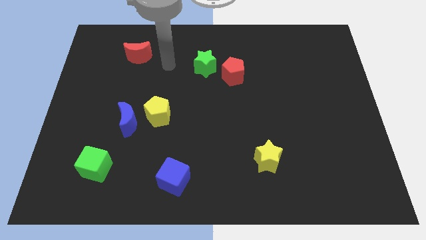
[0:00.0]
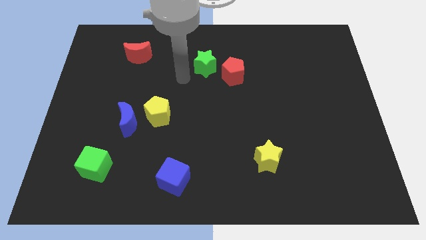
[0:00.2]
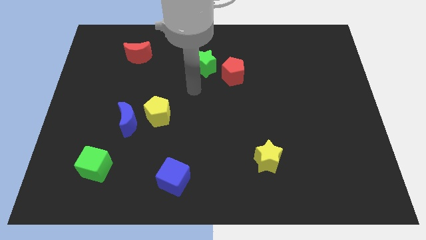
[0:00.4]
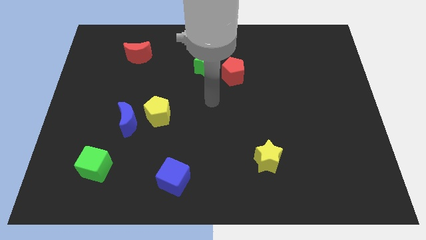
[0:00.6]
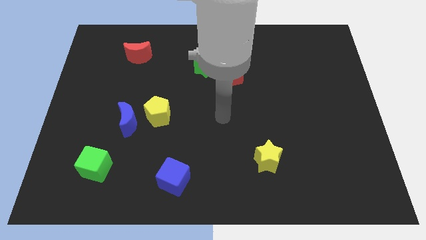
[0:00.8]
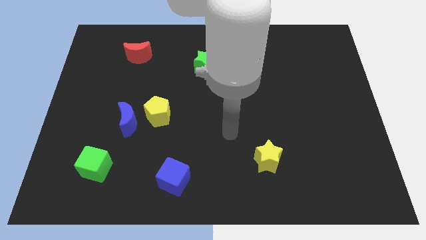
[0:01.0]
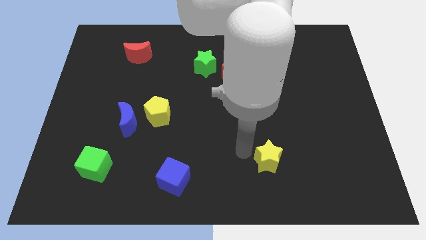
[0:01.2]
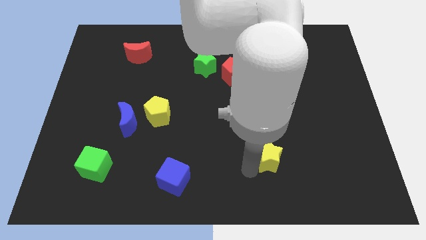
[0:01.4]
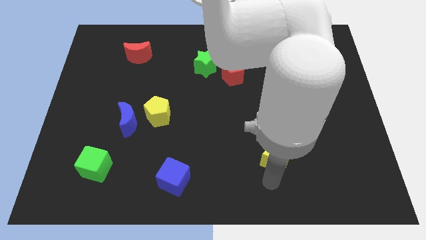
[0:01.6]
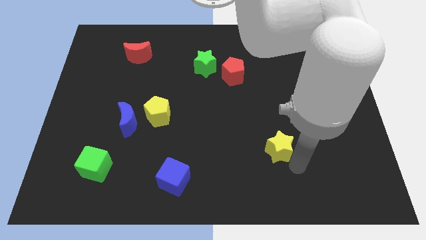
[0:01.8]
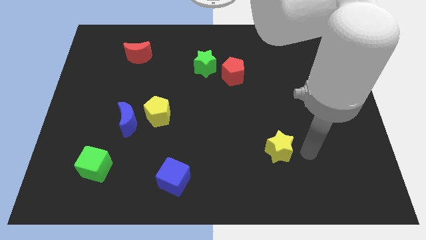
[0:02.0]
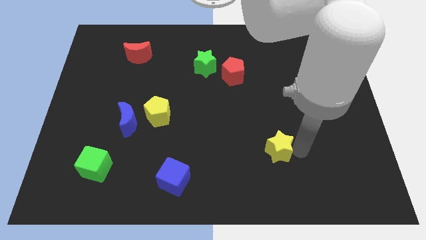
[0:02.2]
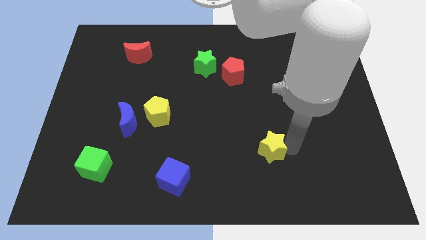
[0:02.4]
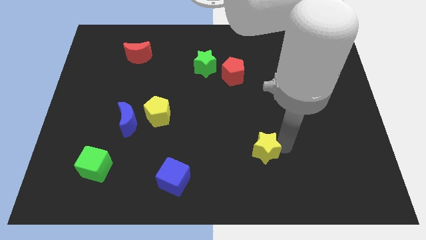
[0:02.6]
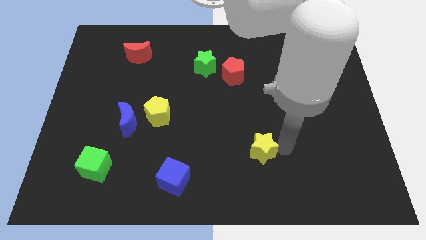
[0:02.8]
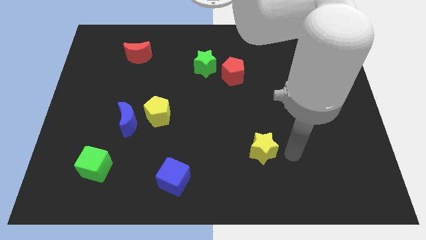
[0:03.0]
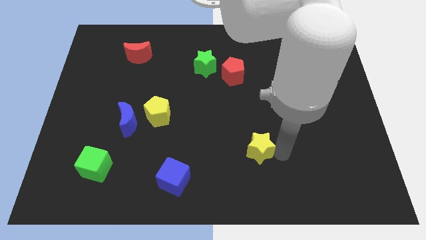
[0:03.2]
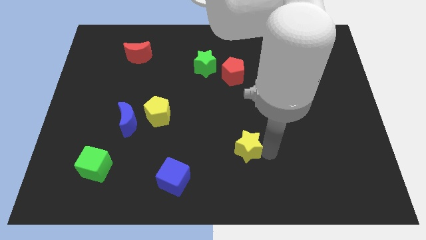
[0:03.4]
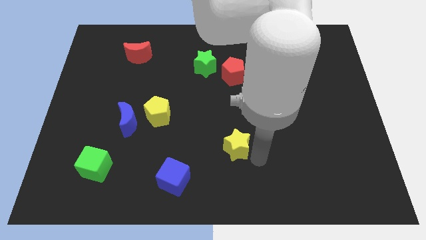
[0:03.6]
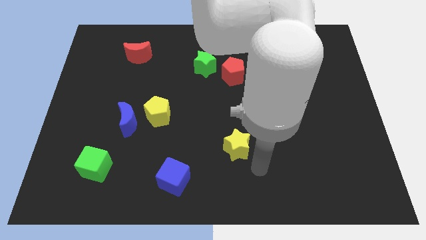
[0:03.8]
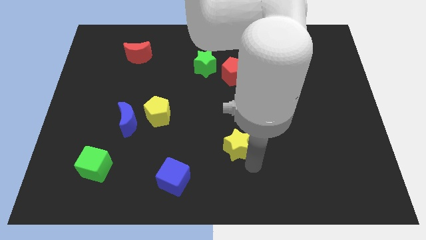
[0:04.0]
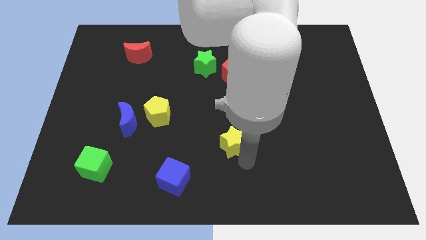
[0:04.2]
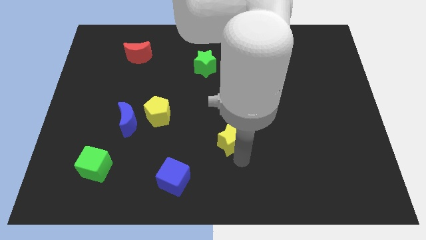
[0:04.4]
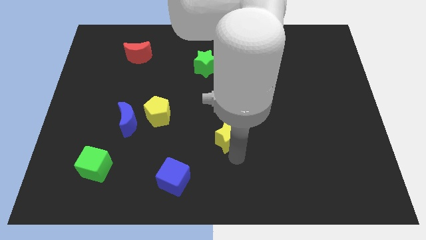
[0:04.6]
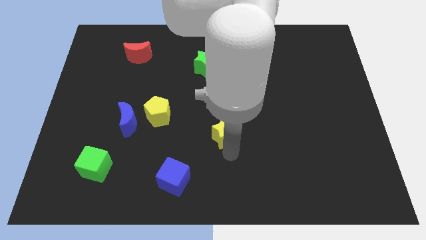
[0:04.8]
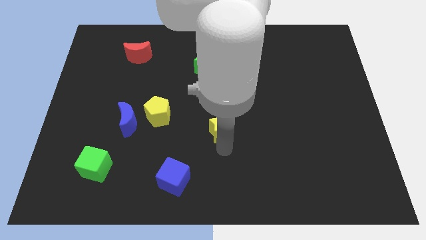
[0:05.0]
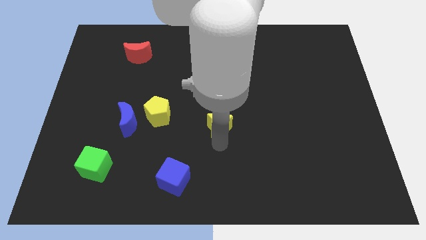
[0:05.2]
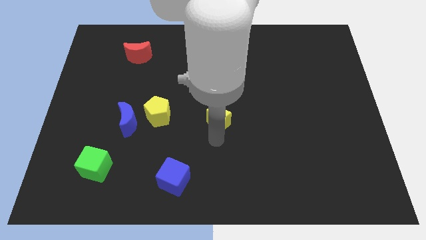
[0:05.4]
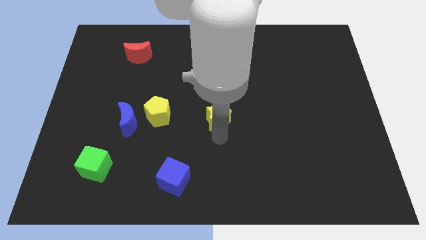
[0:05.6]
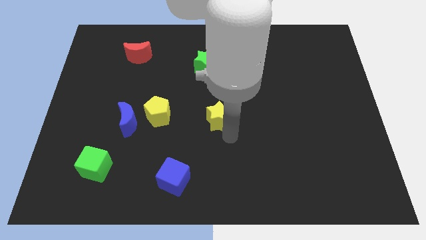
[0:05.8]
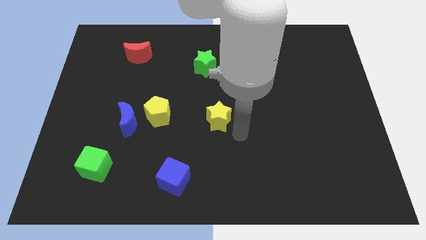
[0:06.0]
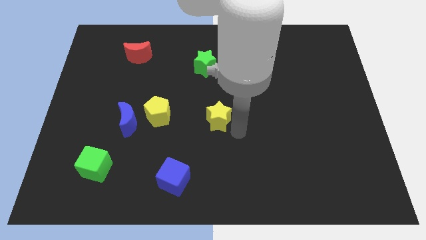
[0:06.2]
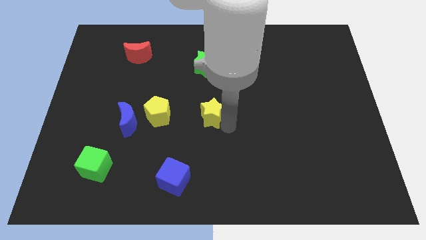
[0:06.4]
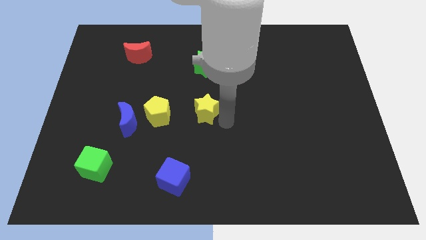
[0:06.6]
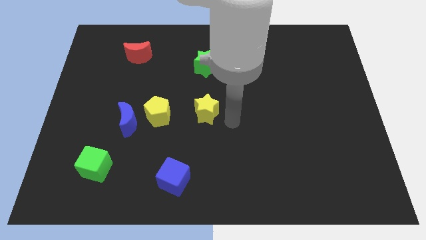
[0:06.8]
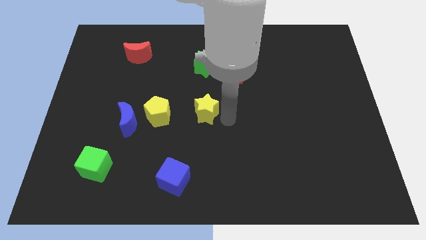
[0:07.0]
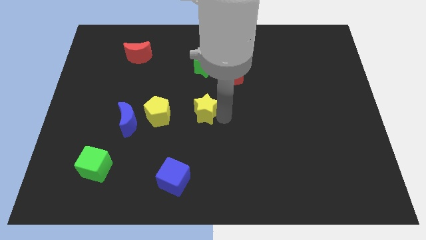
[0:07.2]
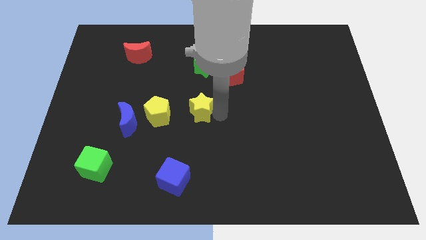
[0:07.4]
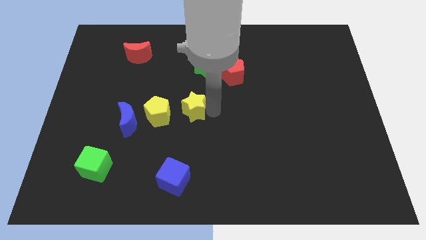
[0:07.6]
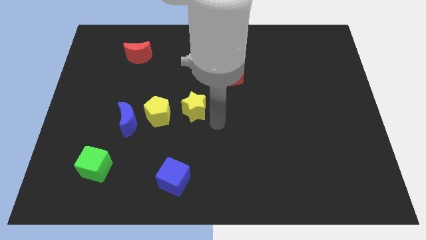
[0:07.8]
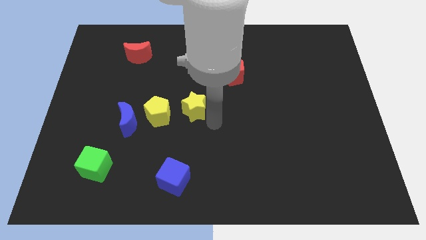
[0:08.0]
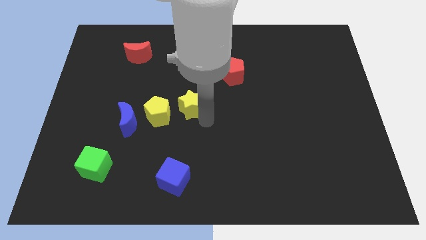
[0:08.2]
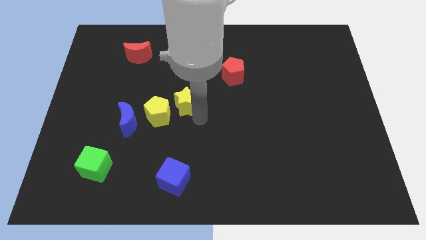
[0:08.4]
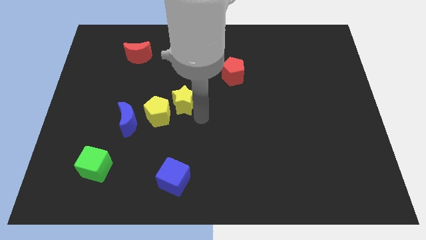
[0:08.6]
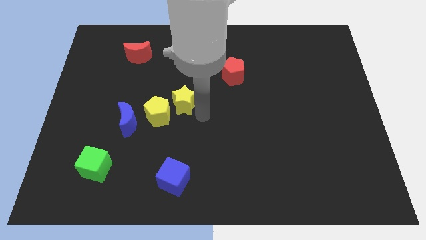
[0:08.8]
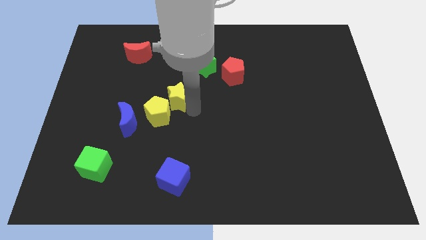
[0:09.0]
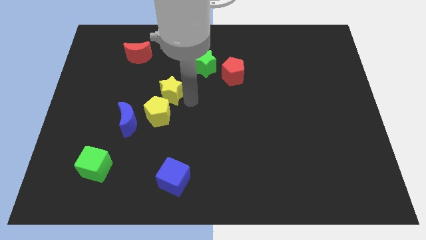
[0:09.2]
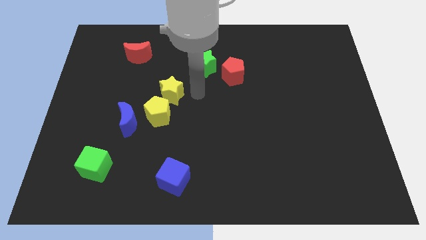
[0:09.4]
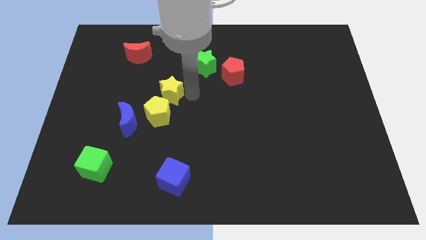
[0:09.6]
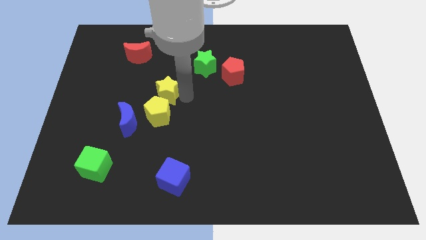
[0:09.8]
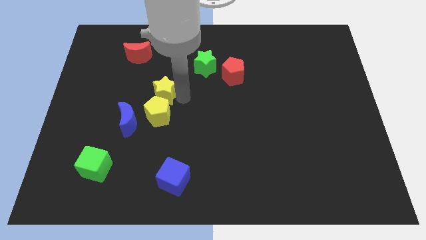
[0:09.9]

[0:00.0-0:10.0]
push the yellow star diagonally up and to the left of the yellow pentagon

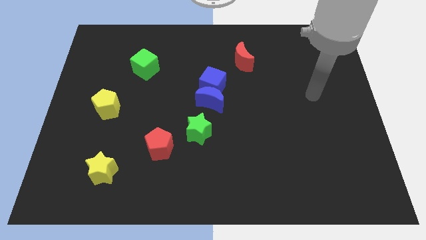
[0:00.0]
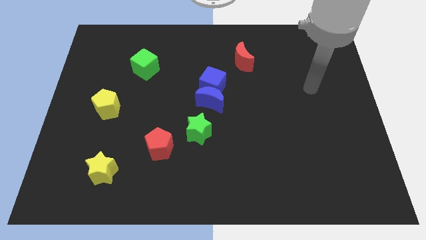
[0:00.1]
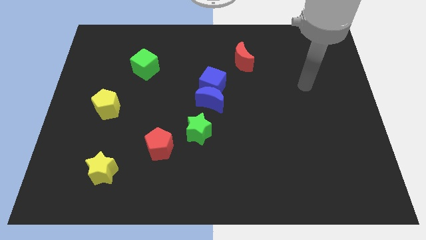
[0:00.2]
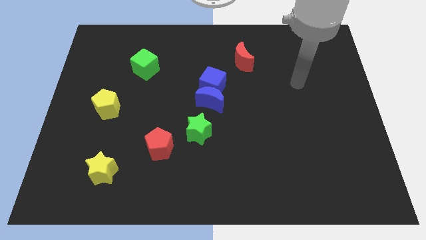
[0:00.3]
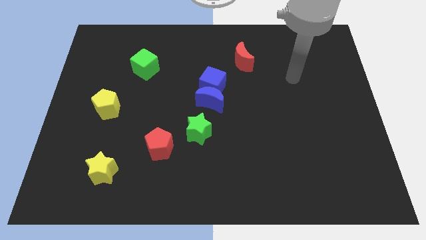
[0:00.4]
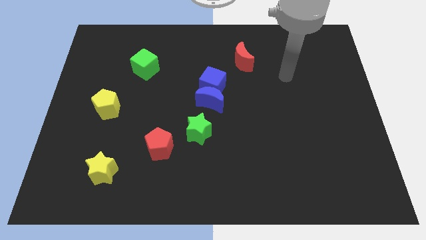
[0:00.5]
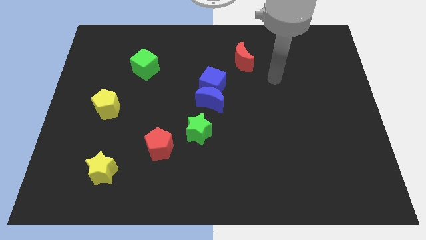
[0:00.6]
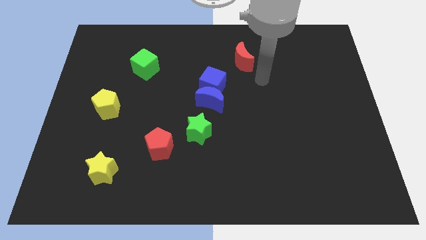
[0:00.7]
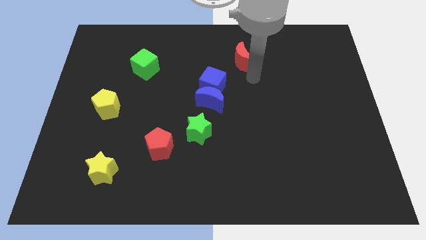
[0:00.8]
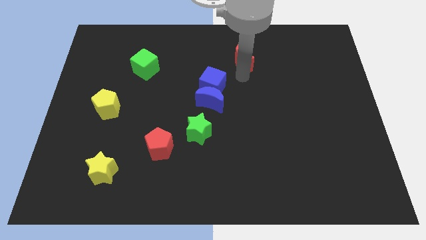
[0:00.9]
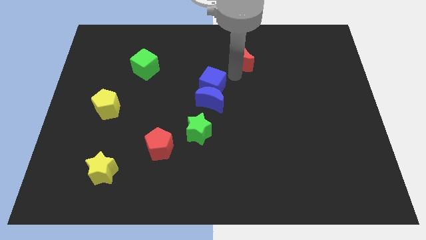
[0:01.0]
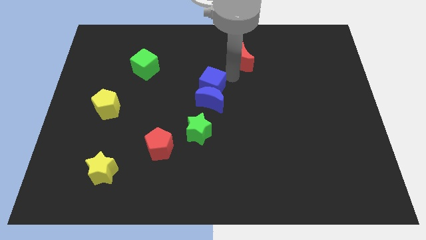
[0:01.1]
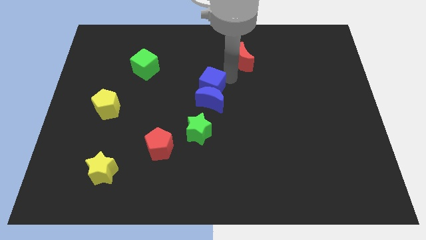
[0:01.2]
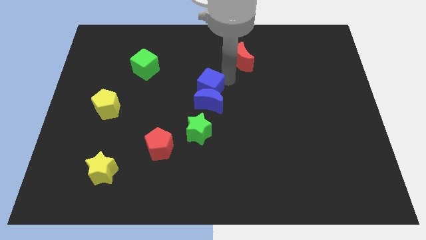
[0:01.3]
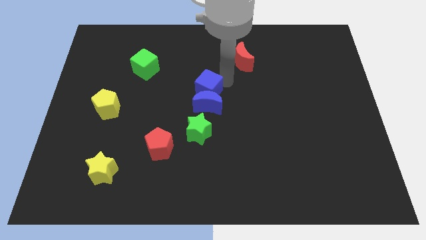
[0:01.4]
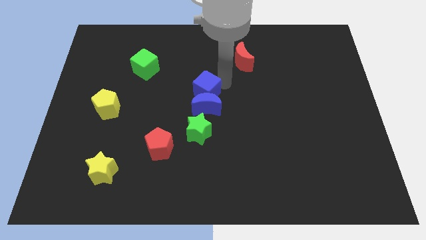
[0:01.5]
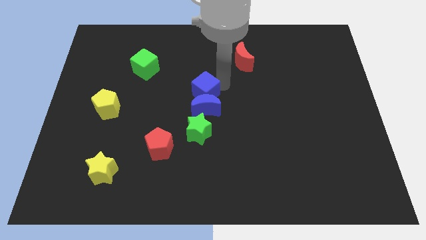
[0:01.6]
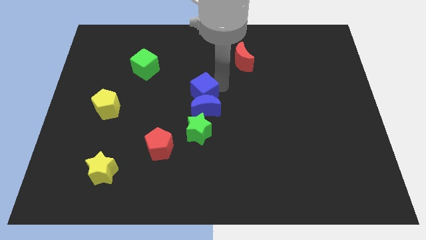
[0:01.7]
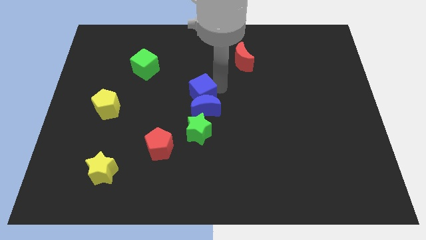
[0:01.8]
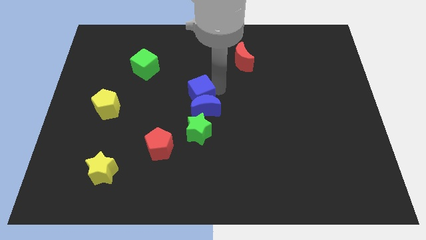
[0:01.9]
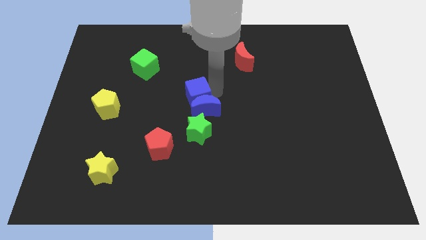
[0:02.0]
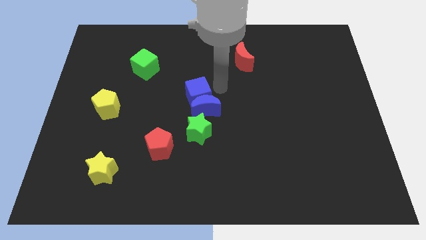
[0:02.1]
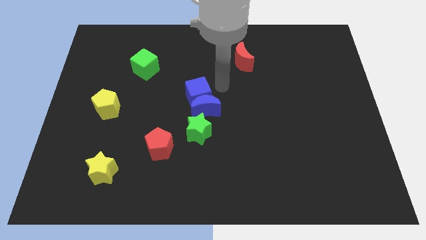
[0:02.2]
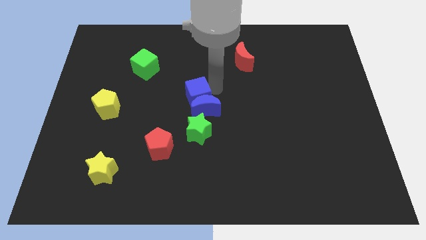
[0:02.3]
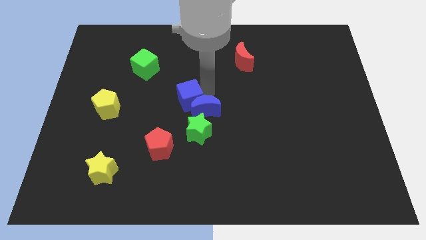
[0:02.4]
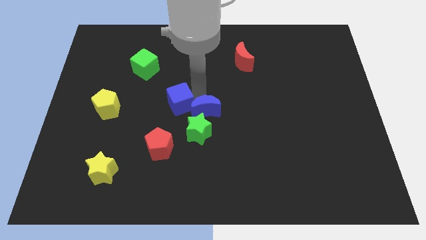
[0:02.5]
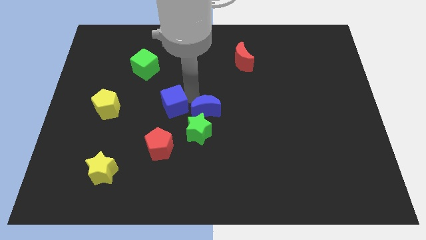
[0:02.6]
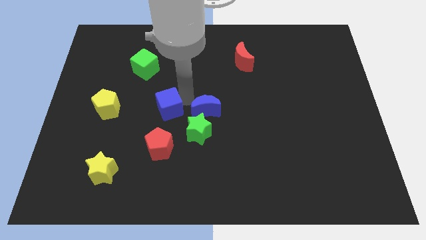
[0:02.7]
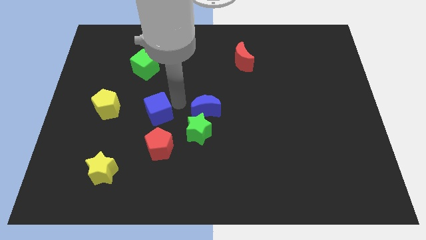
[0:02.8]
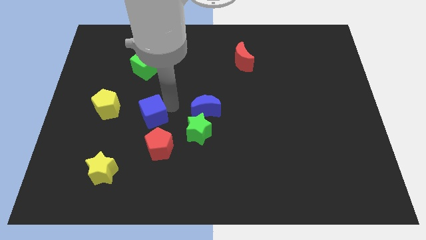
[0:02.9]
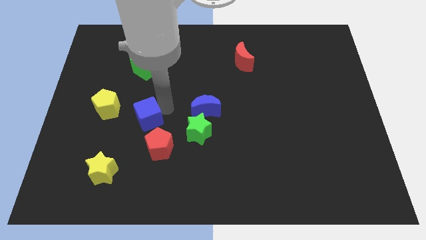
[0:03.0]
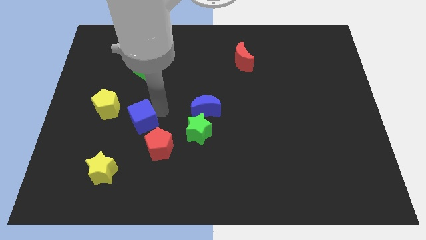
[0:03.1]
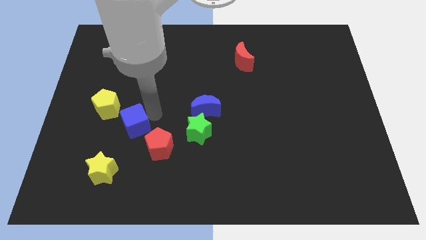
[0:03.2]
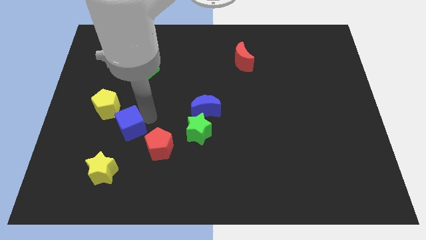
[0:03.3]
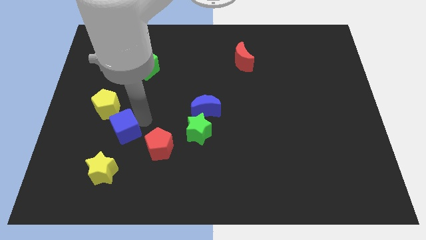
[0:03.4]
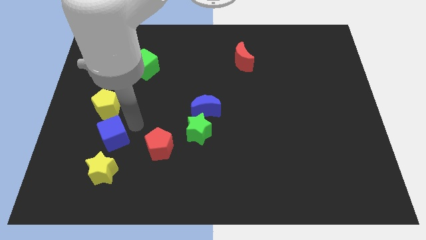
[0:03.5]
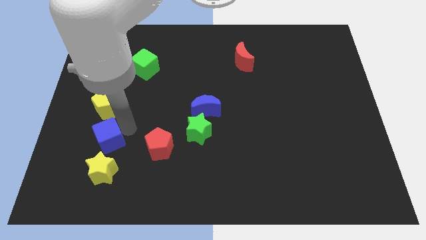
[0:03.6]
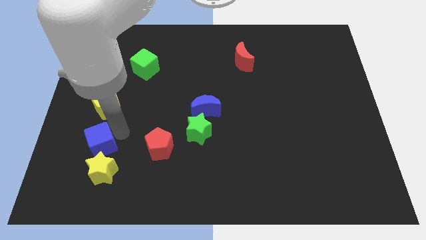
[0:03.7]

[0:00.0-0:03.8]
put the blue cube diagonally up and to the left of the yellow star
